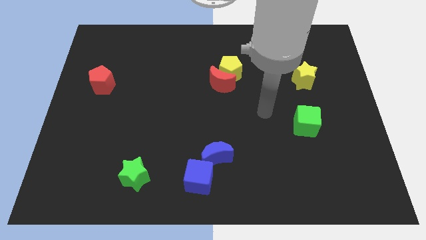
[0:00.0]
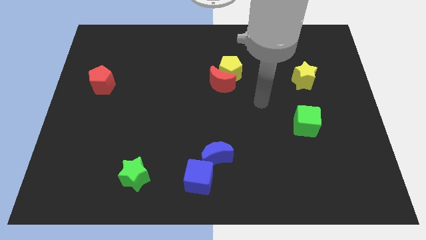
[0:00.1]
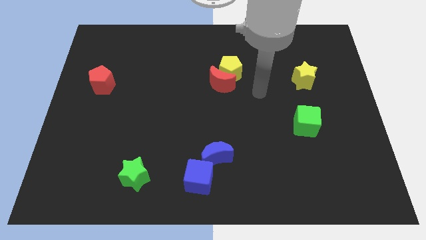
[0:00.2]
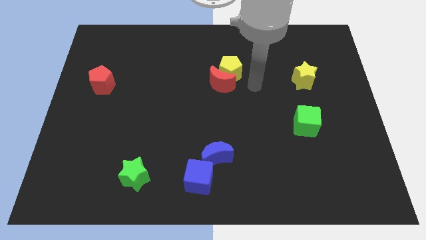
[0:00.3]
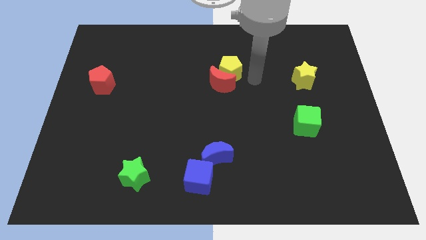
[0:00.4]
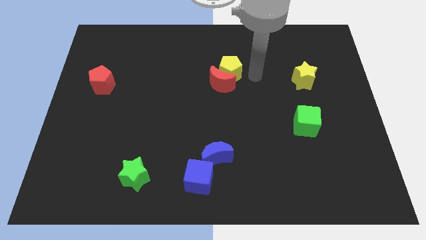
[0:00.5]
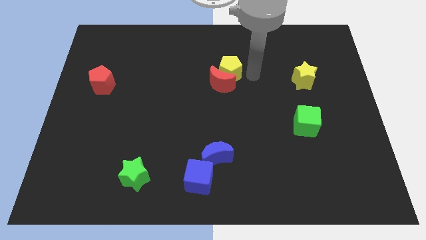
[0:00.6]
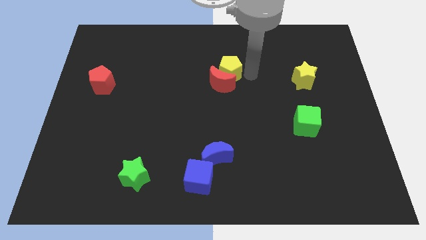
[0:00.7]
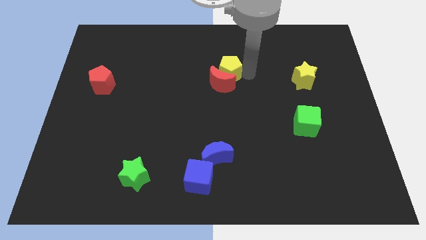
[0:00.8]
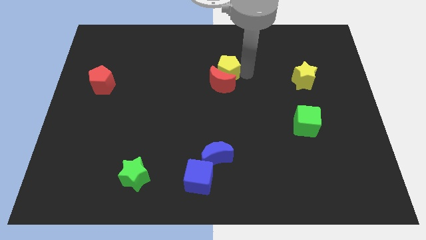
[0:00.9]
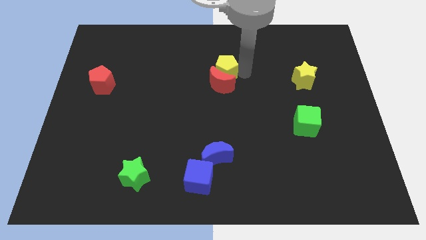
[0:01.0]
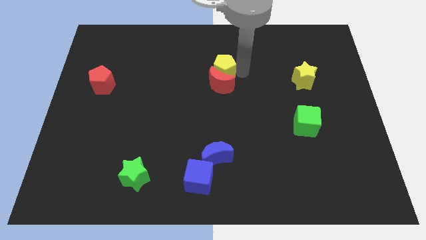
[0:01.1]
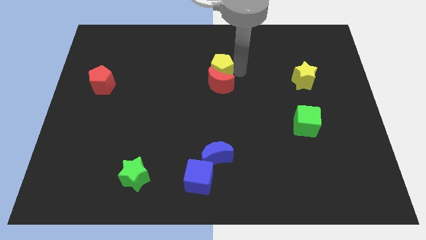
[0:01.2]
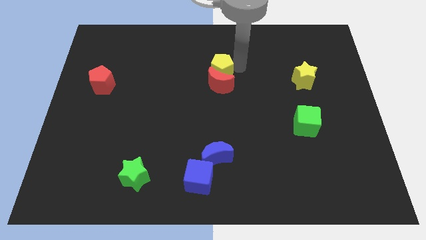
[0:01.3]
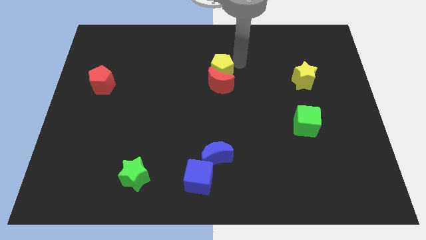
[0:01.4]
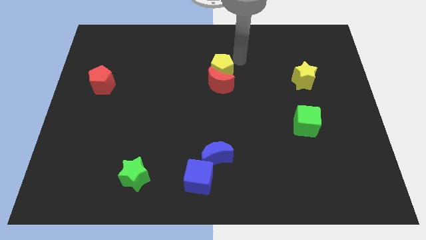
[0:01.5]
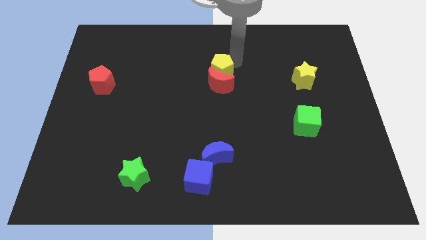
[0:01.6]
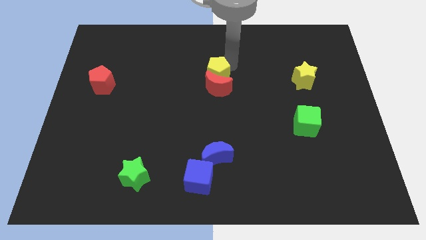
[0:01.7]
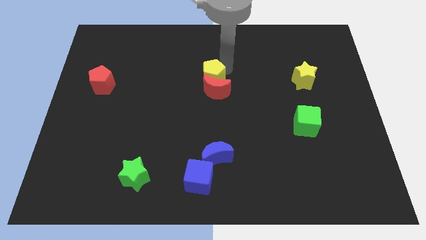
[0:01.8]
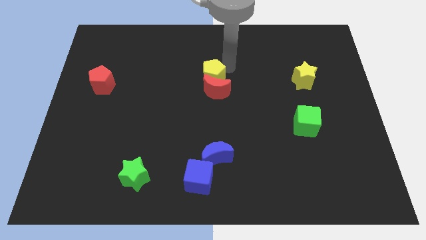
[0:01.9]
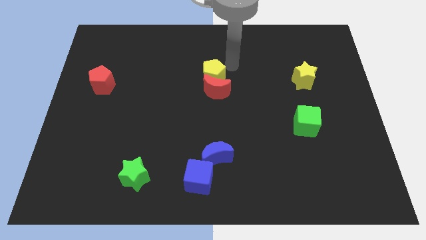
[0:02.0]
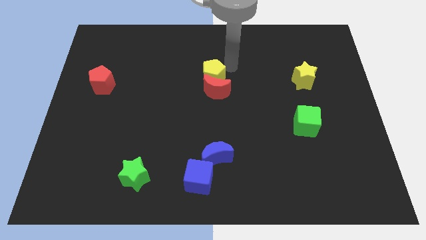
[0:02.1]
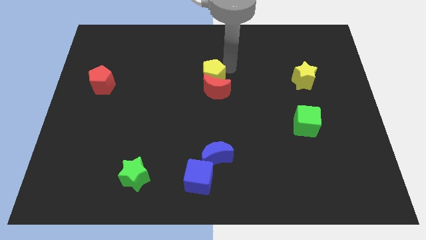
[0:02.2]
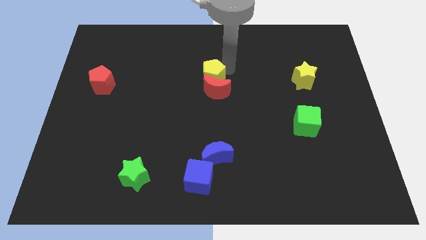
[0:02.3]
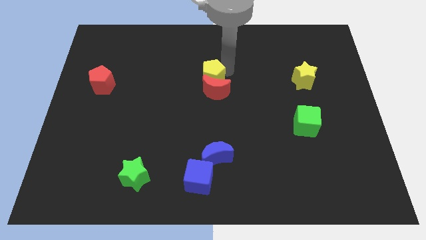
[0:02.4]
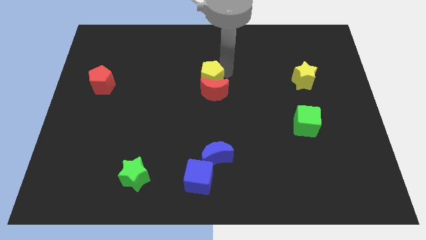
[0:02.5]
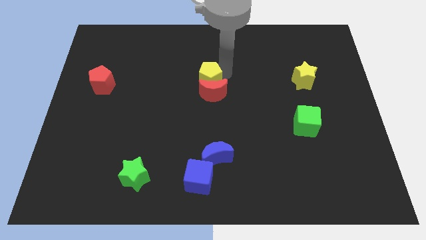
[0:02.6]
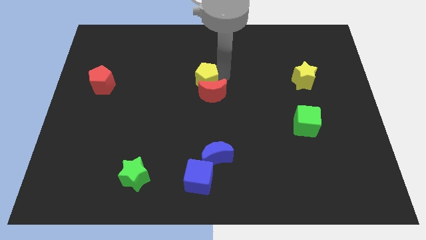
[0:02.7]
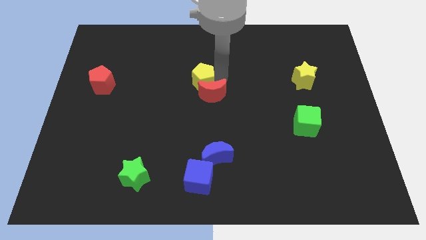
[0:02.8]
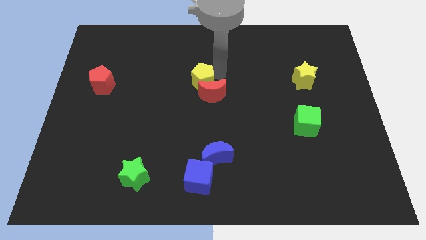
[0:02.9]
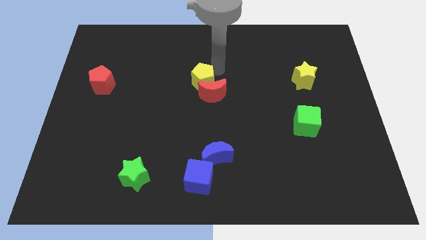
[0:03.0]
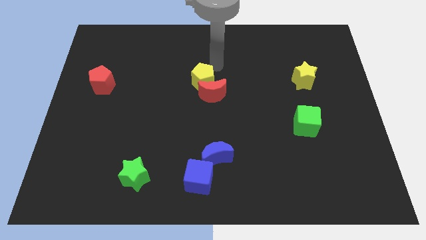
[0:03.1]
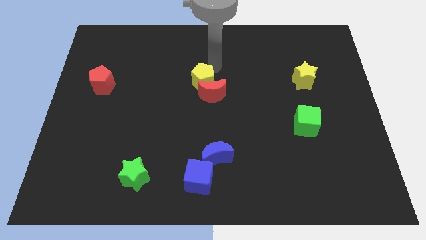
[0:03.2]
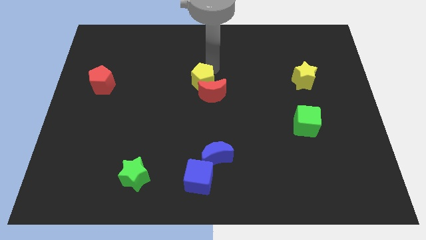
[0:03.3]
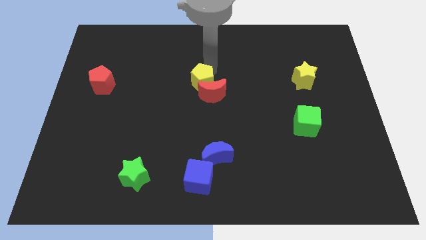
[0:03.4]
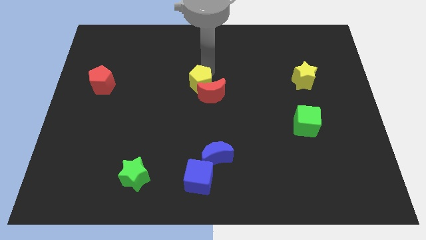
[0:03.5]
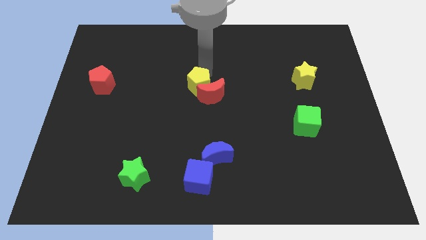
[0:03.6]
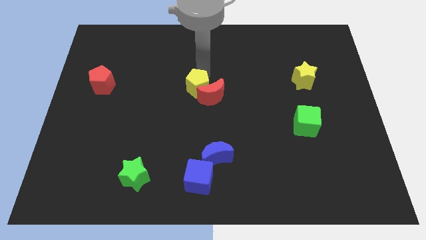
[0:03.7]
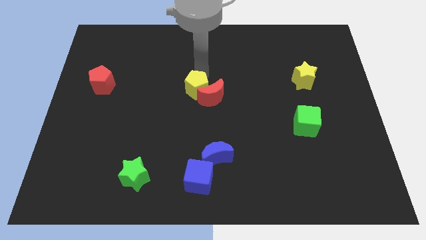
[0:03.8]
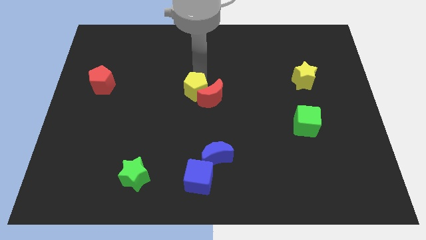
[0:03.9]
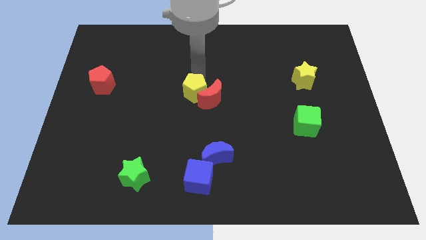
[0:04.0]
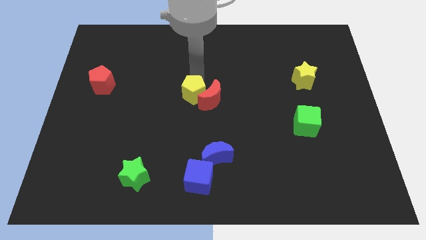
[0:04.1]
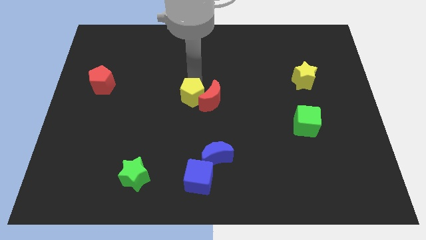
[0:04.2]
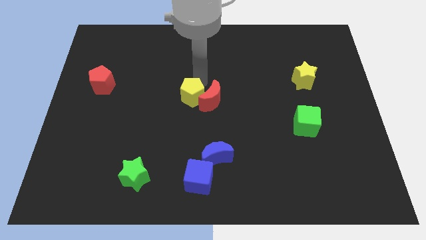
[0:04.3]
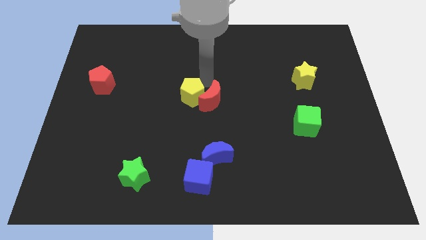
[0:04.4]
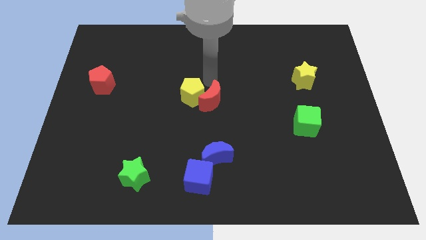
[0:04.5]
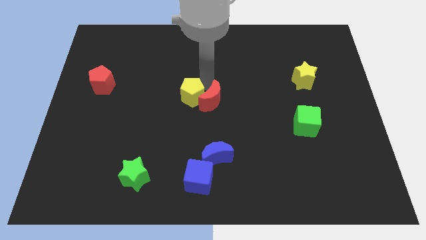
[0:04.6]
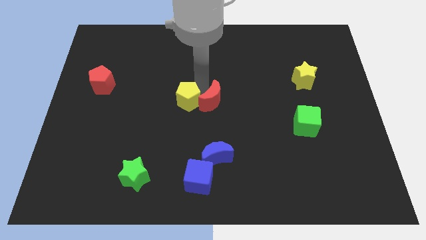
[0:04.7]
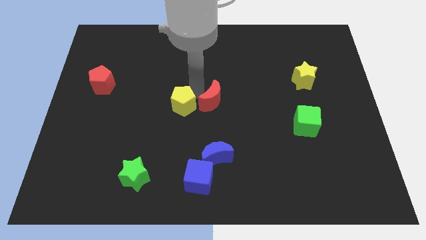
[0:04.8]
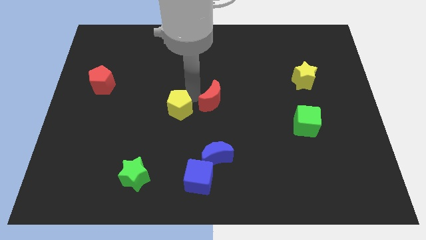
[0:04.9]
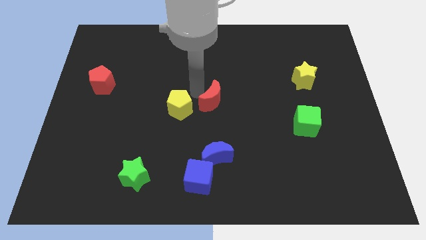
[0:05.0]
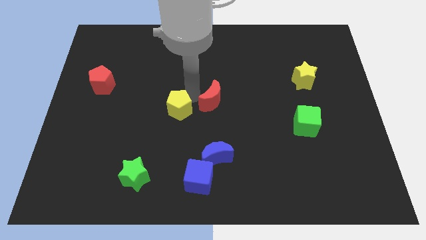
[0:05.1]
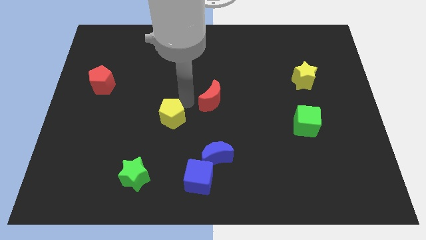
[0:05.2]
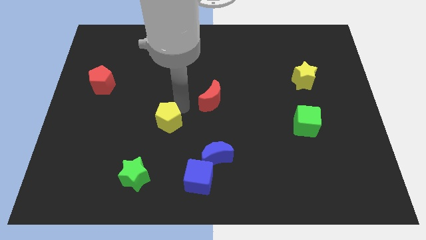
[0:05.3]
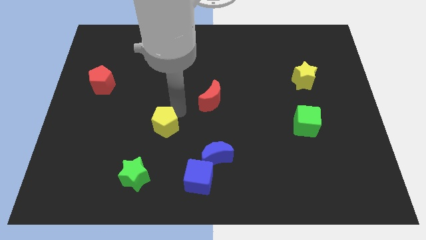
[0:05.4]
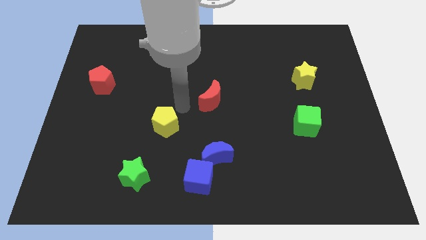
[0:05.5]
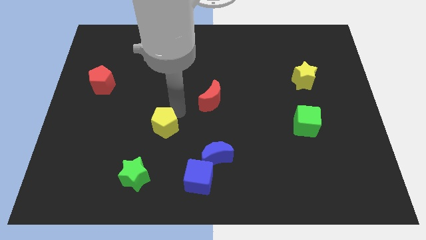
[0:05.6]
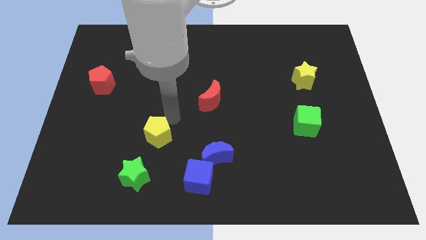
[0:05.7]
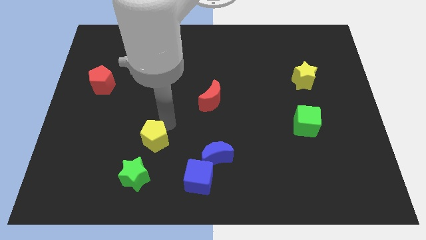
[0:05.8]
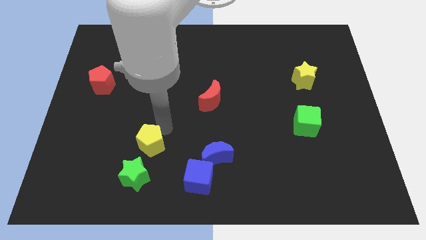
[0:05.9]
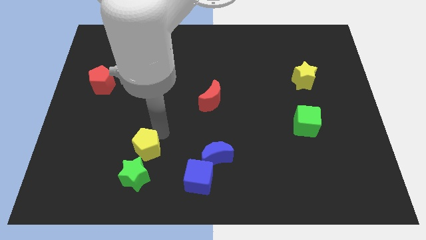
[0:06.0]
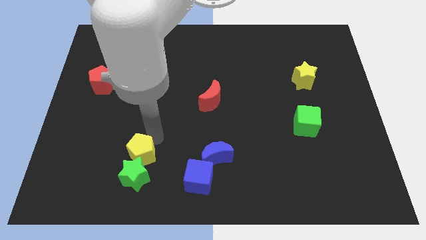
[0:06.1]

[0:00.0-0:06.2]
move the yellow pentagon to the green star

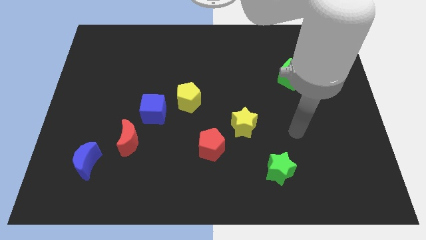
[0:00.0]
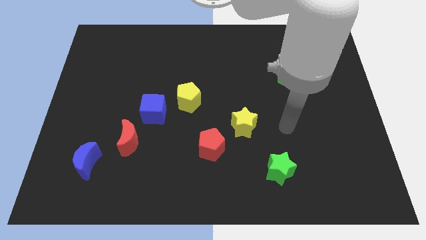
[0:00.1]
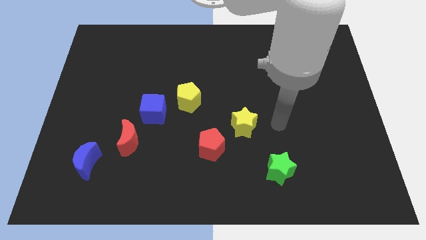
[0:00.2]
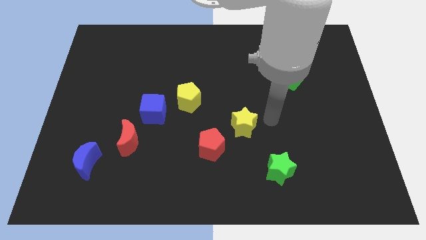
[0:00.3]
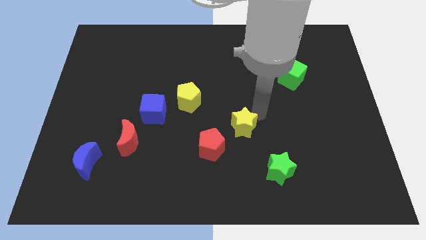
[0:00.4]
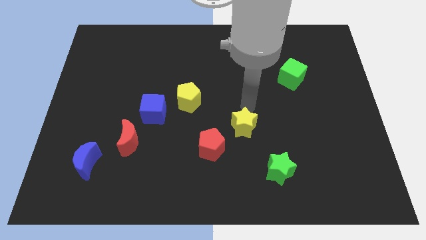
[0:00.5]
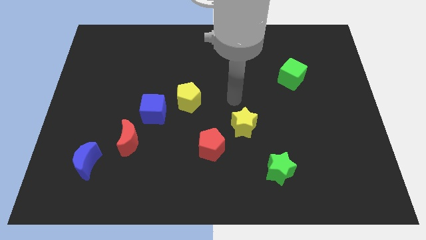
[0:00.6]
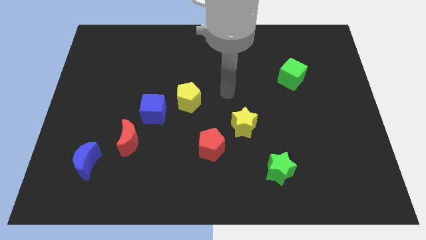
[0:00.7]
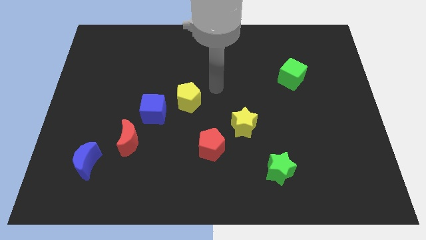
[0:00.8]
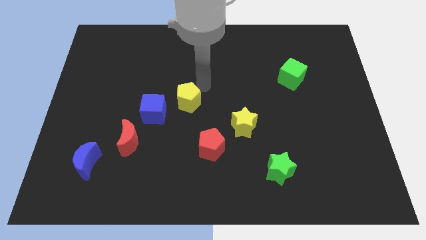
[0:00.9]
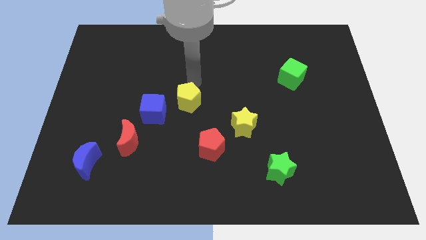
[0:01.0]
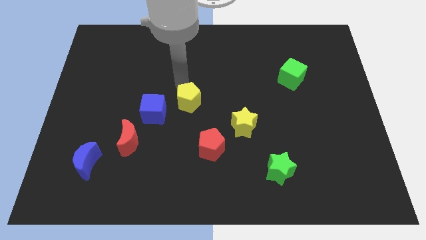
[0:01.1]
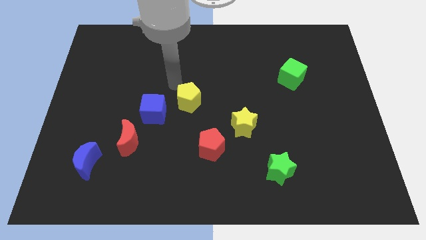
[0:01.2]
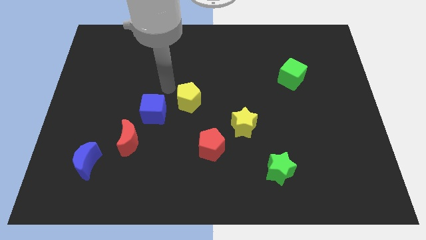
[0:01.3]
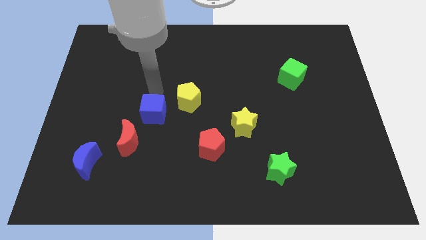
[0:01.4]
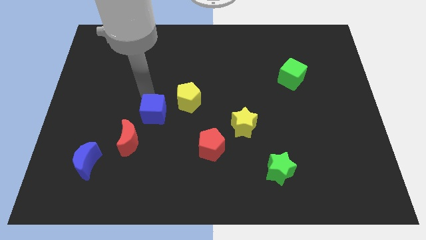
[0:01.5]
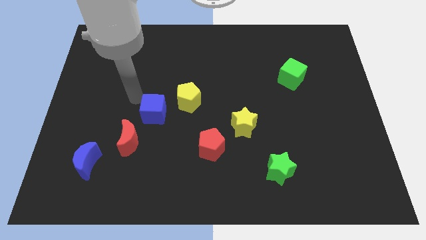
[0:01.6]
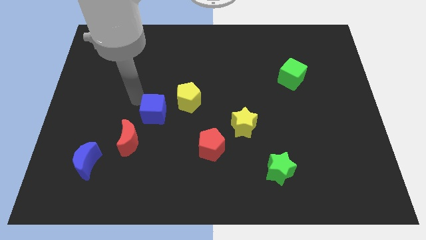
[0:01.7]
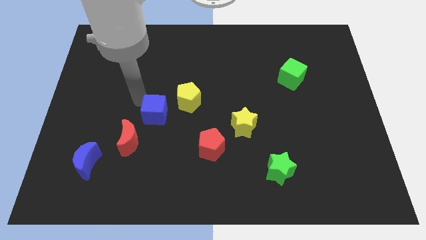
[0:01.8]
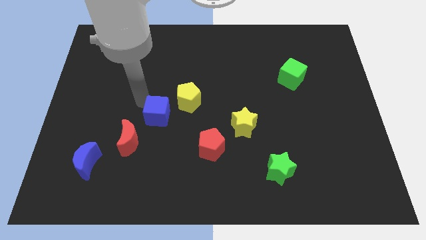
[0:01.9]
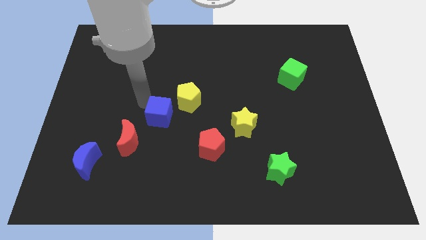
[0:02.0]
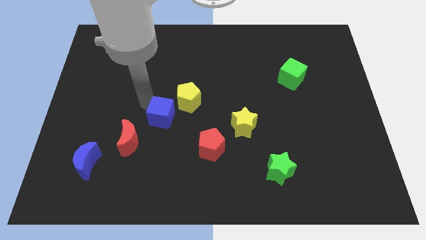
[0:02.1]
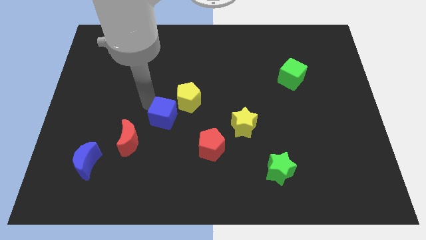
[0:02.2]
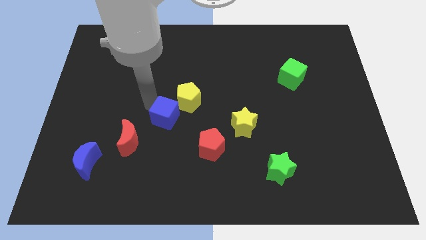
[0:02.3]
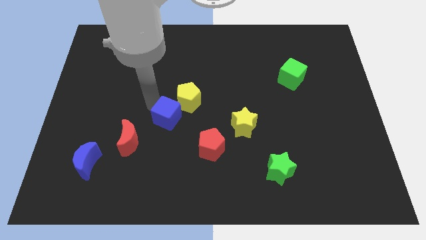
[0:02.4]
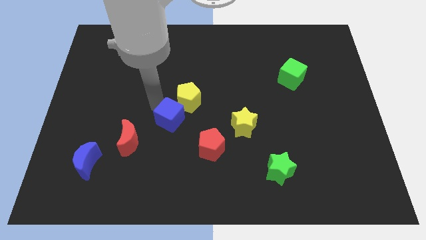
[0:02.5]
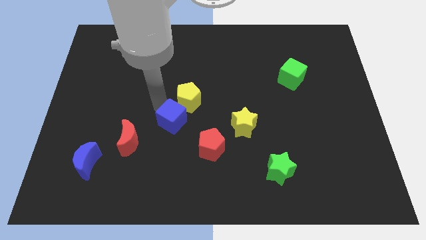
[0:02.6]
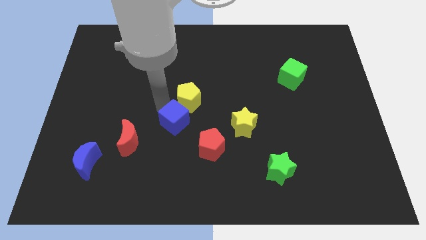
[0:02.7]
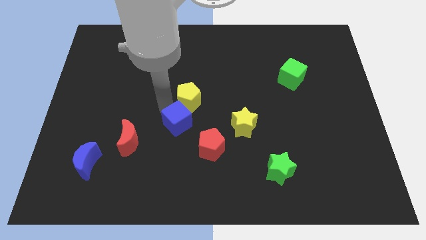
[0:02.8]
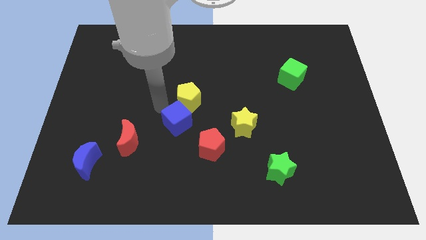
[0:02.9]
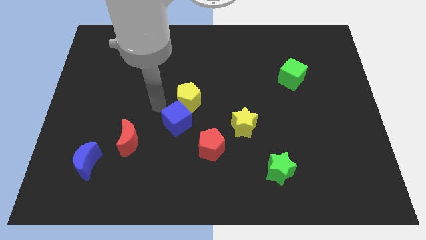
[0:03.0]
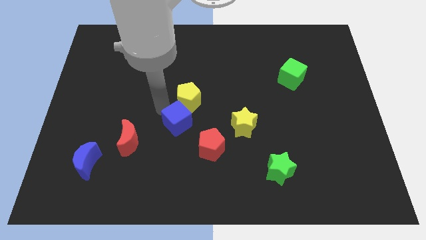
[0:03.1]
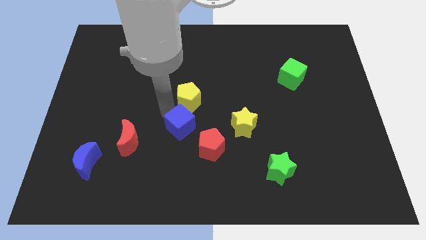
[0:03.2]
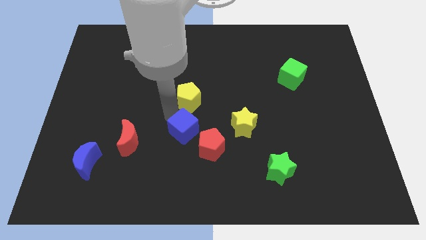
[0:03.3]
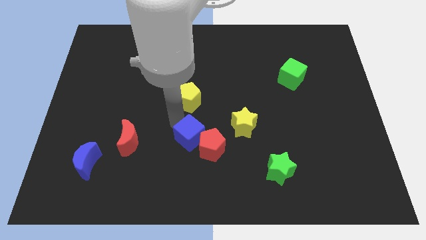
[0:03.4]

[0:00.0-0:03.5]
slide the blue cube next to the red pentagon
